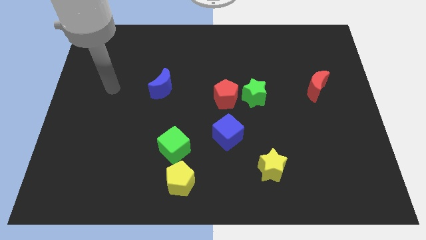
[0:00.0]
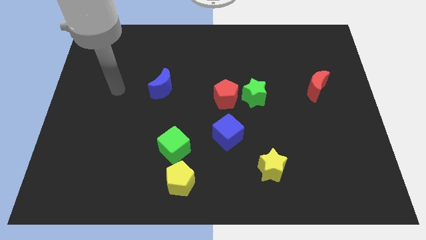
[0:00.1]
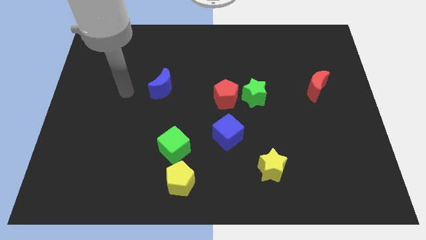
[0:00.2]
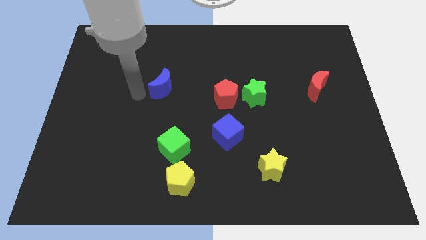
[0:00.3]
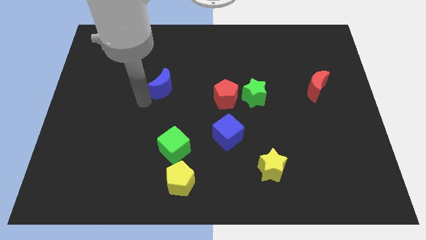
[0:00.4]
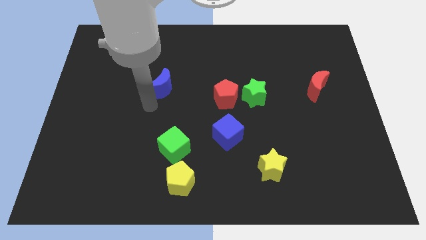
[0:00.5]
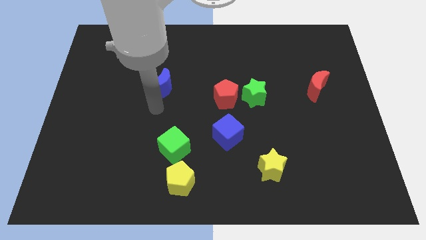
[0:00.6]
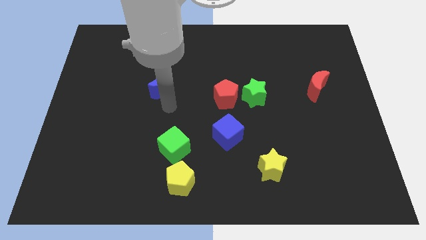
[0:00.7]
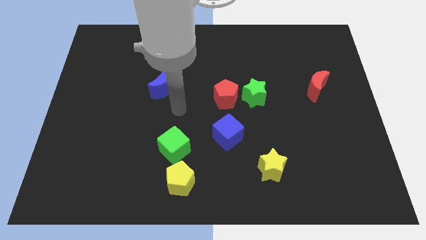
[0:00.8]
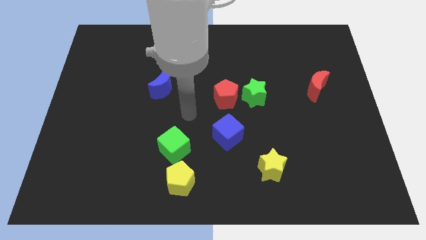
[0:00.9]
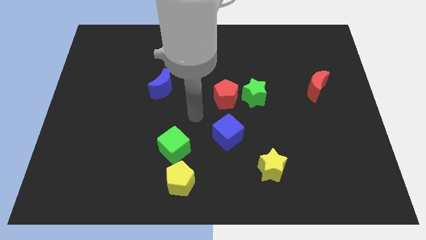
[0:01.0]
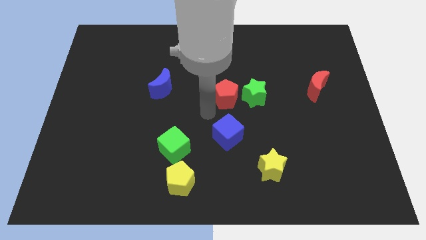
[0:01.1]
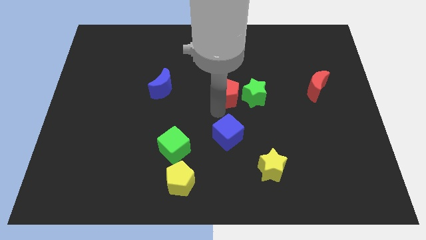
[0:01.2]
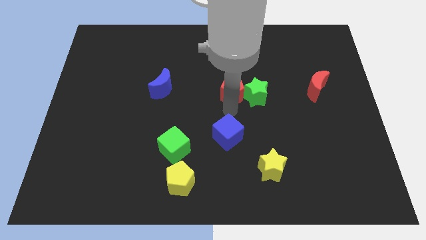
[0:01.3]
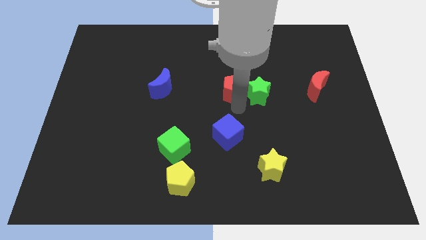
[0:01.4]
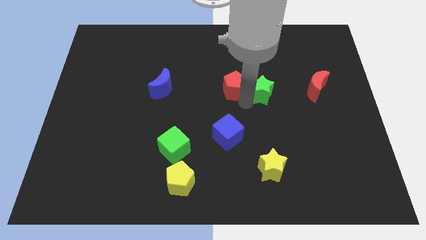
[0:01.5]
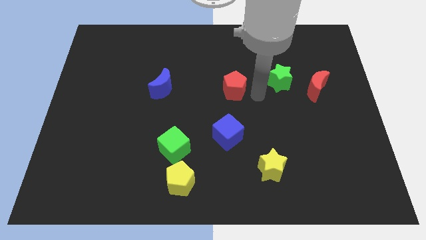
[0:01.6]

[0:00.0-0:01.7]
separate the red pentagon from the green star

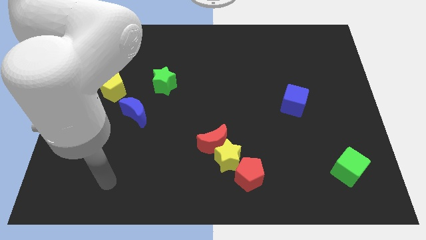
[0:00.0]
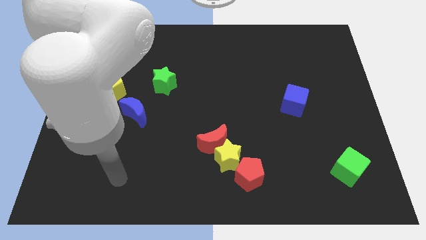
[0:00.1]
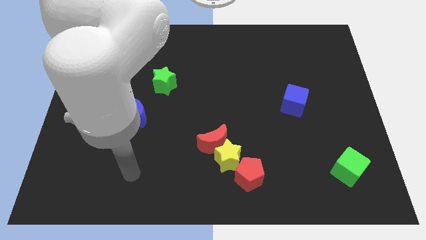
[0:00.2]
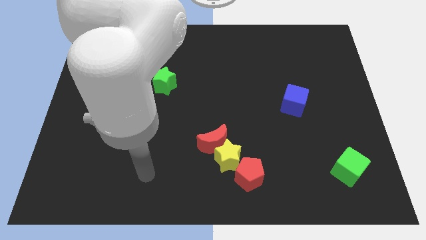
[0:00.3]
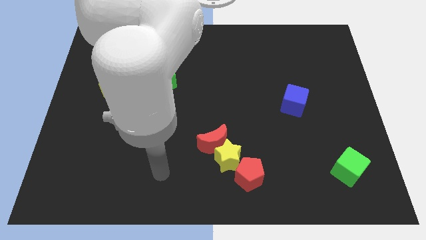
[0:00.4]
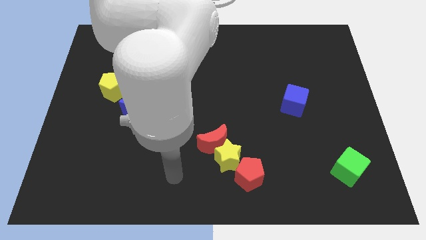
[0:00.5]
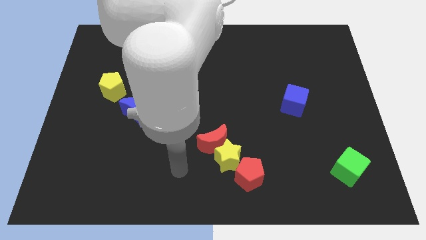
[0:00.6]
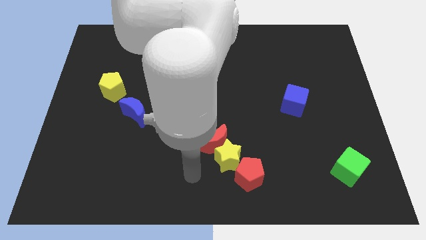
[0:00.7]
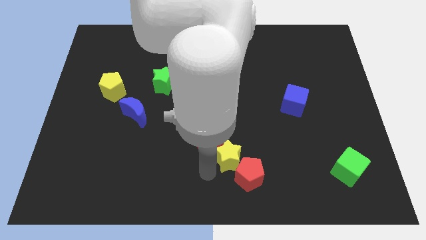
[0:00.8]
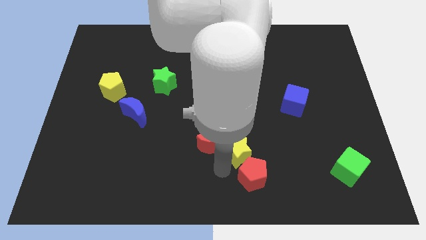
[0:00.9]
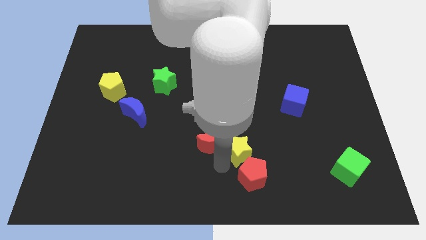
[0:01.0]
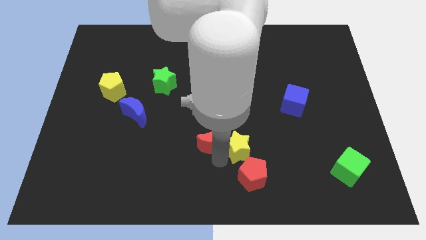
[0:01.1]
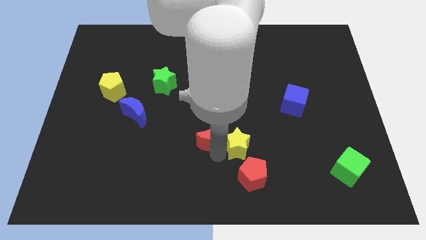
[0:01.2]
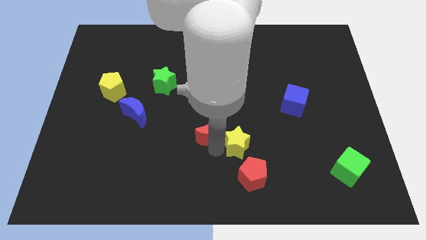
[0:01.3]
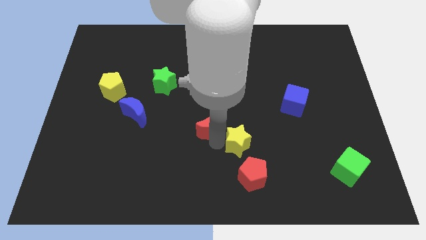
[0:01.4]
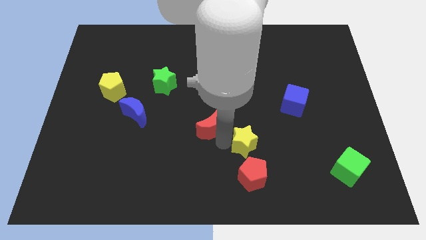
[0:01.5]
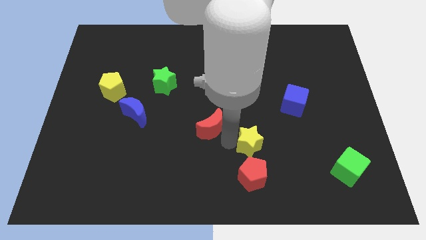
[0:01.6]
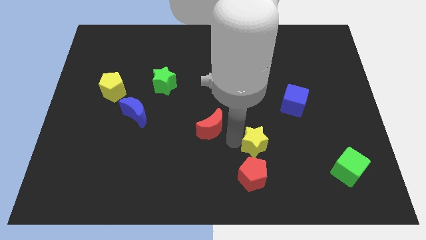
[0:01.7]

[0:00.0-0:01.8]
pull the red moon apart from the yellow star

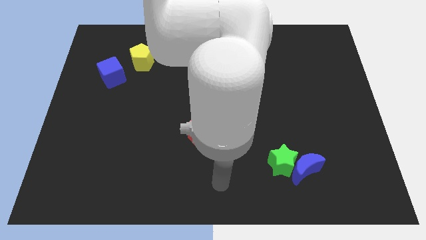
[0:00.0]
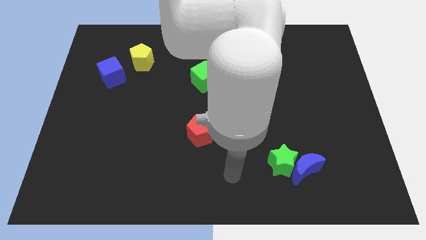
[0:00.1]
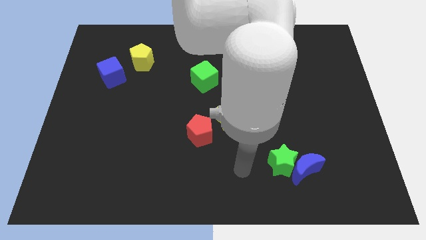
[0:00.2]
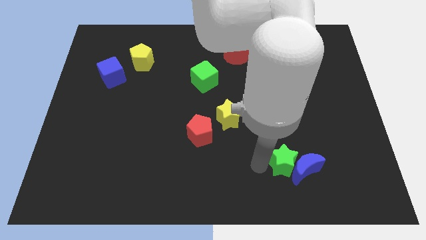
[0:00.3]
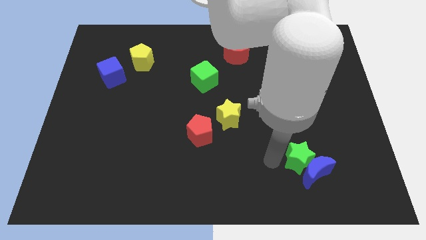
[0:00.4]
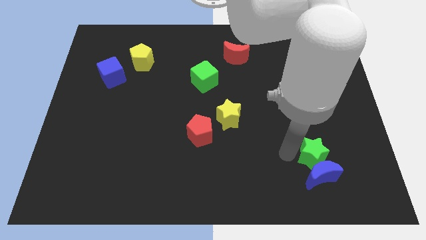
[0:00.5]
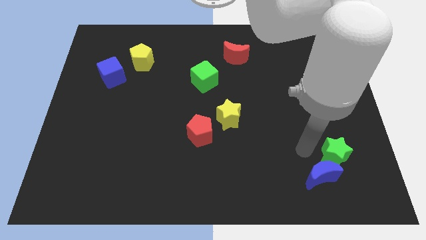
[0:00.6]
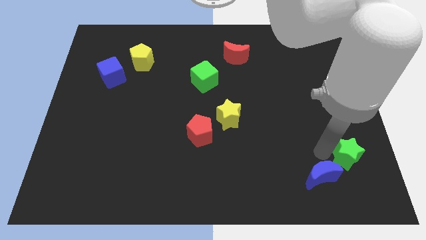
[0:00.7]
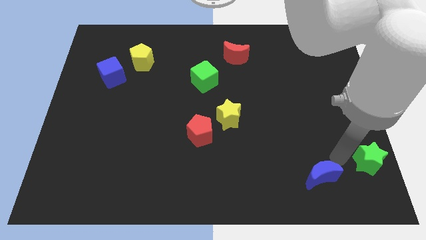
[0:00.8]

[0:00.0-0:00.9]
pull the blue moon apart from the green star

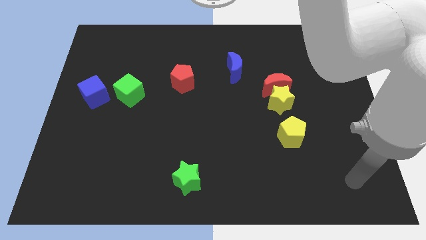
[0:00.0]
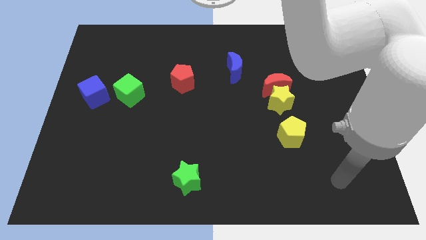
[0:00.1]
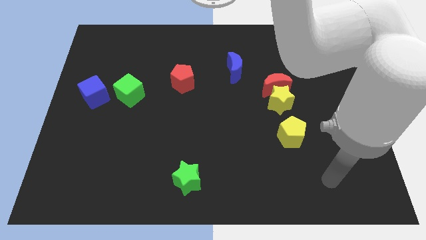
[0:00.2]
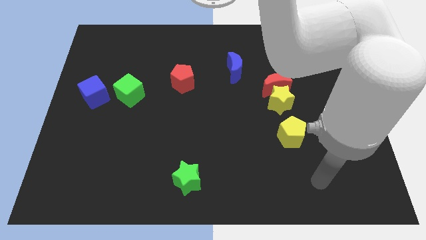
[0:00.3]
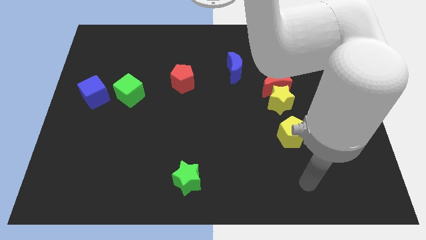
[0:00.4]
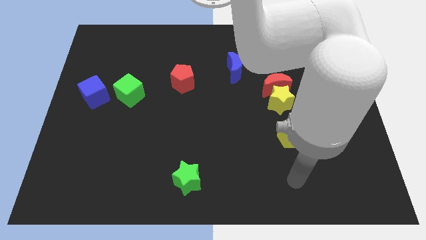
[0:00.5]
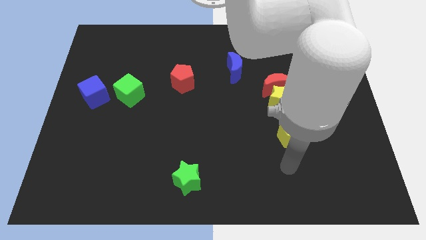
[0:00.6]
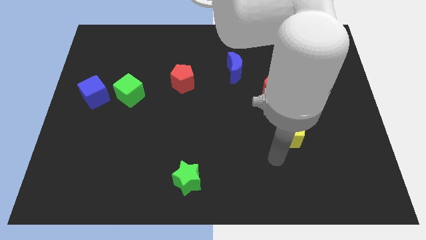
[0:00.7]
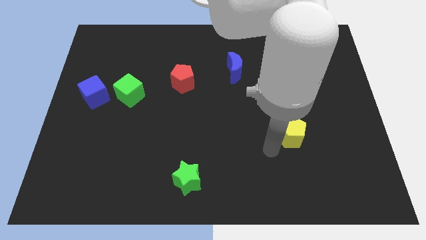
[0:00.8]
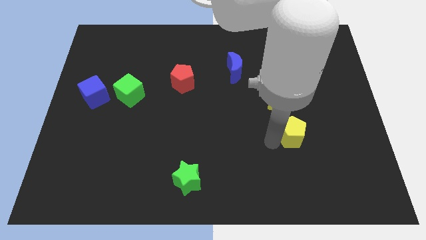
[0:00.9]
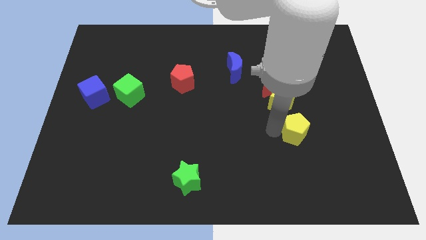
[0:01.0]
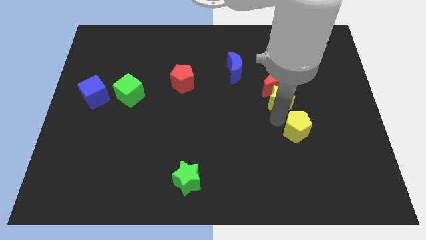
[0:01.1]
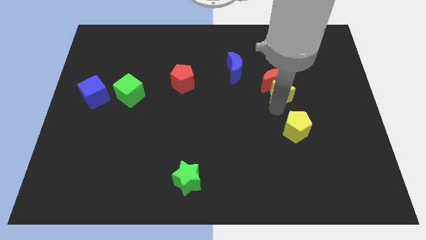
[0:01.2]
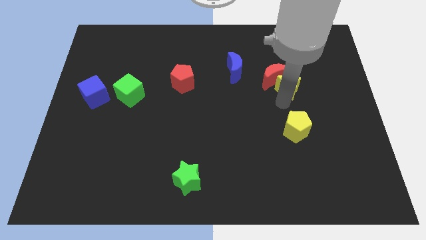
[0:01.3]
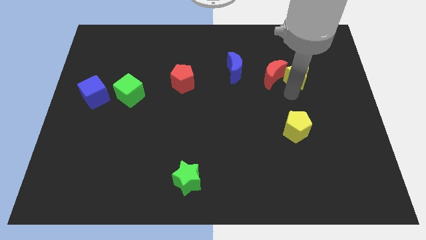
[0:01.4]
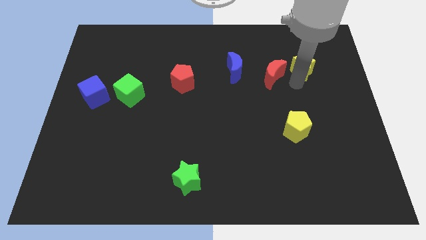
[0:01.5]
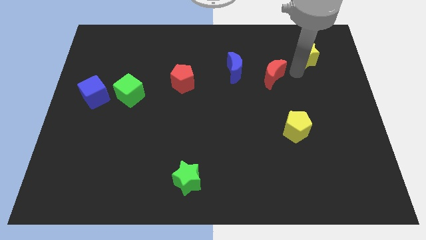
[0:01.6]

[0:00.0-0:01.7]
move the red moon away from the yellow star

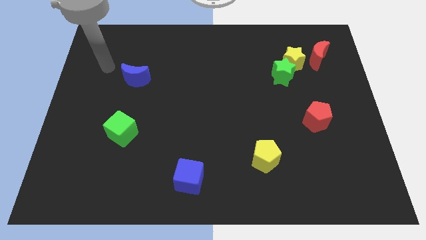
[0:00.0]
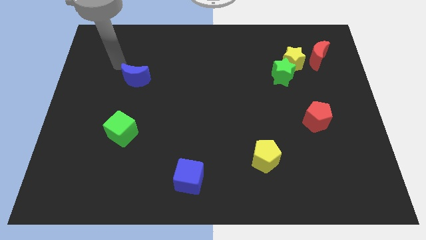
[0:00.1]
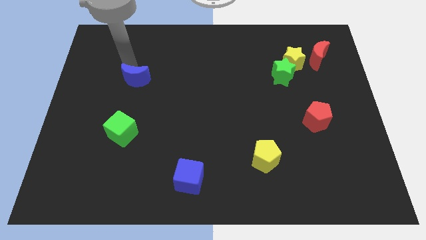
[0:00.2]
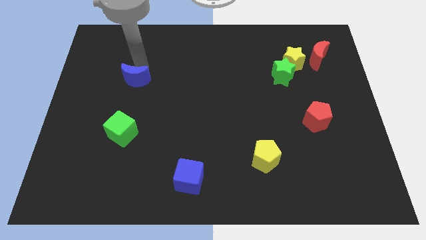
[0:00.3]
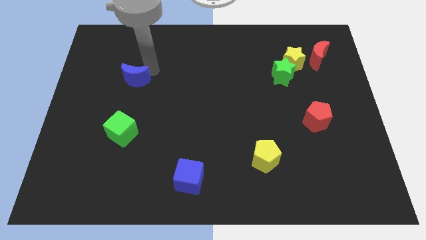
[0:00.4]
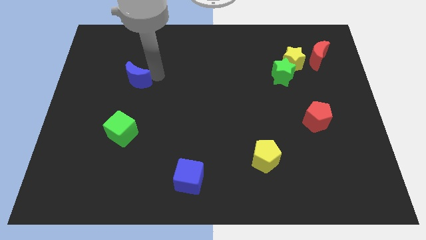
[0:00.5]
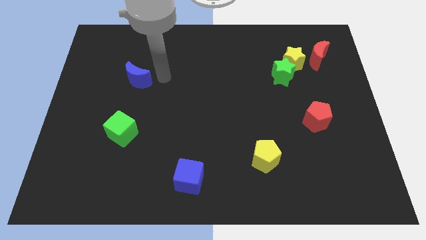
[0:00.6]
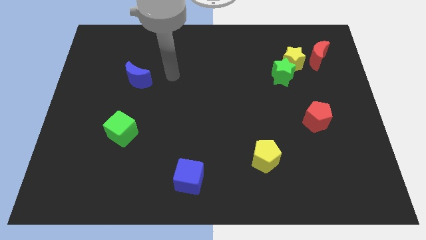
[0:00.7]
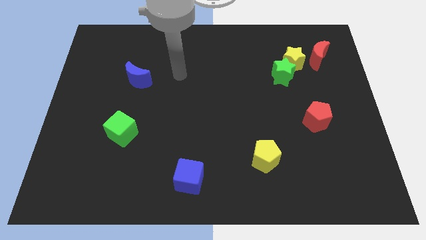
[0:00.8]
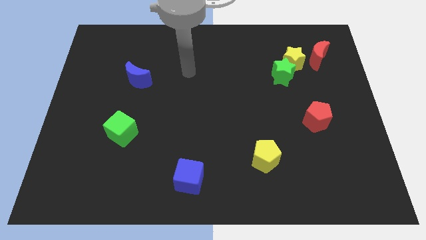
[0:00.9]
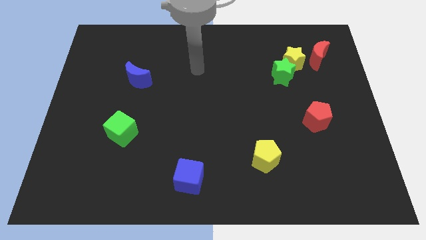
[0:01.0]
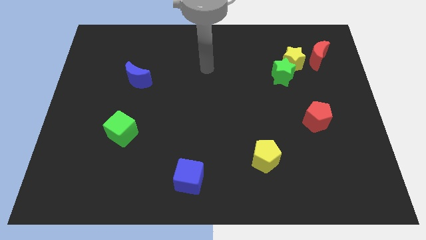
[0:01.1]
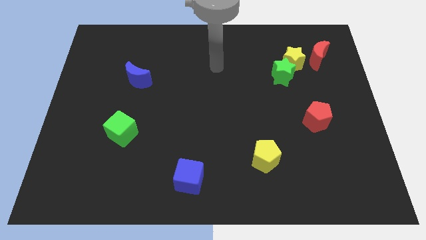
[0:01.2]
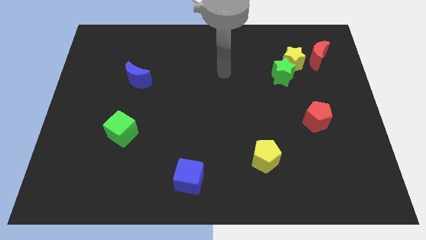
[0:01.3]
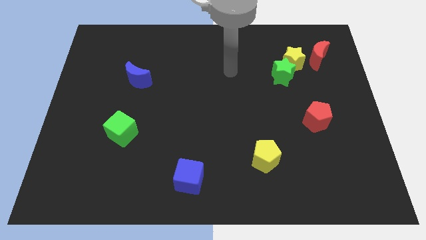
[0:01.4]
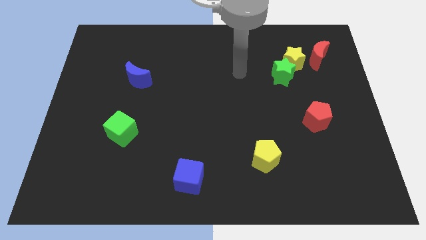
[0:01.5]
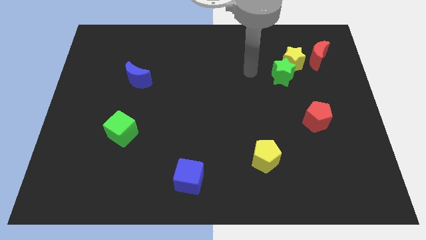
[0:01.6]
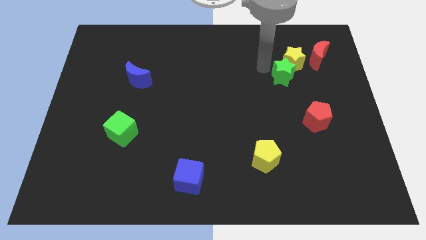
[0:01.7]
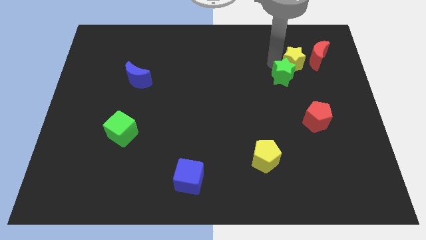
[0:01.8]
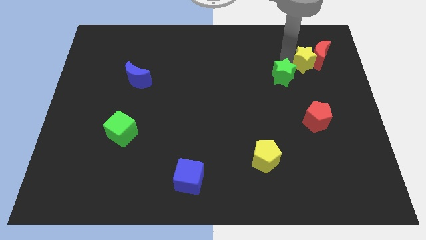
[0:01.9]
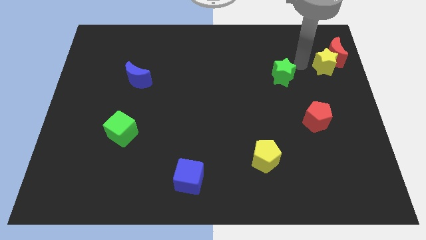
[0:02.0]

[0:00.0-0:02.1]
move the green star away from the yellow star

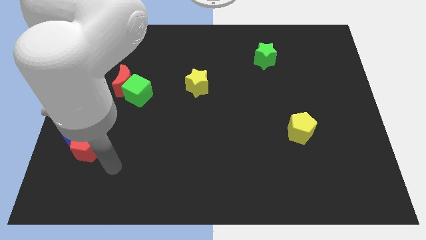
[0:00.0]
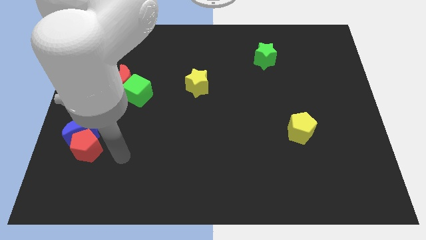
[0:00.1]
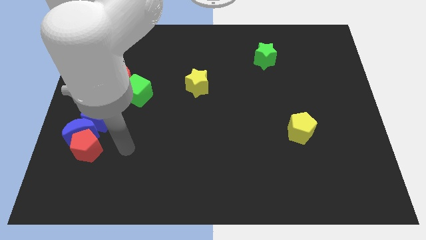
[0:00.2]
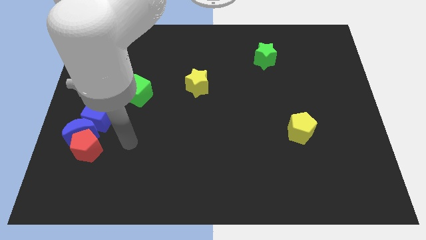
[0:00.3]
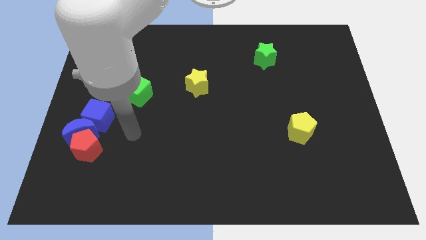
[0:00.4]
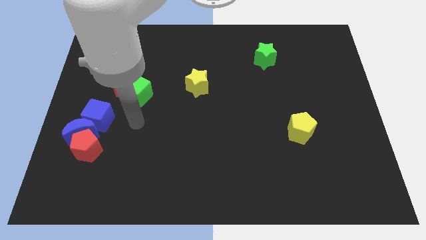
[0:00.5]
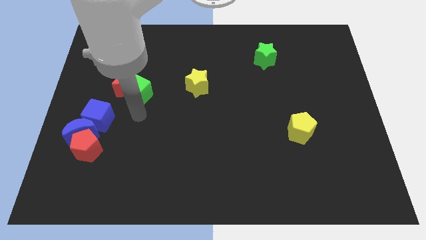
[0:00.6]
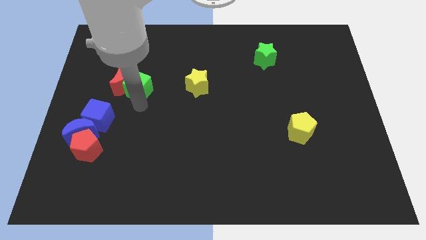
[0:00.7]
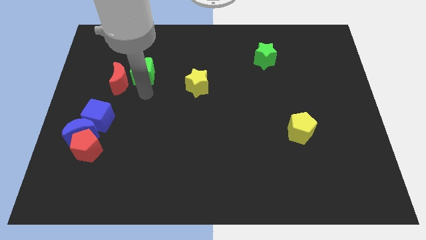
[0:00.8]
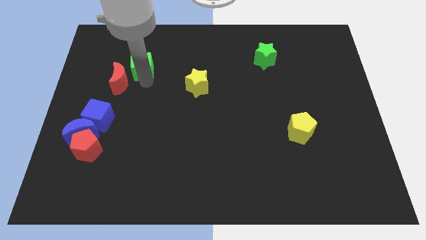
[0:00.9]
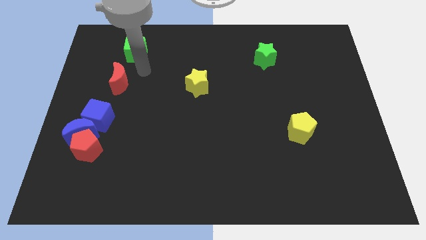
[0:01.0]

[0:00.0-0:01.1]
move the red moon away from the green cube
